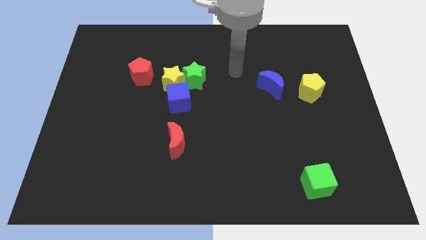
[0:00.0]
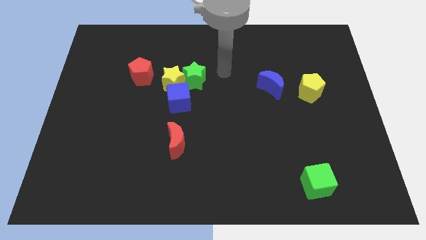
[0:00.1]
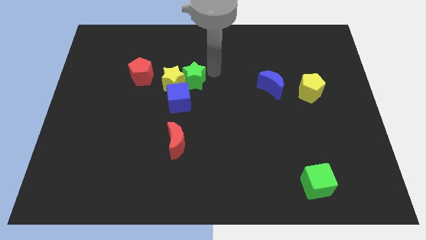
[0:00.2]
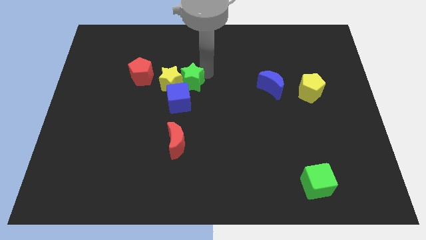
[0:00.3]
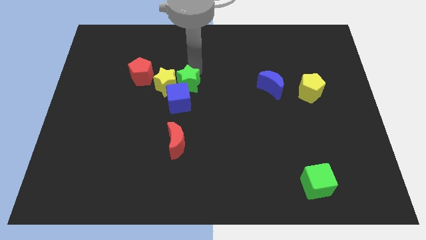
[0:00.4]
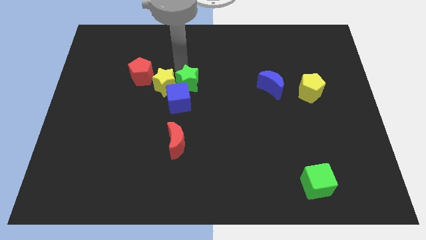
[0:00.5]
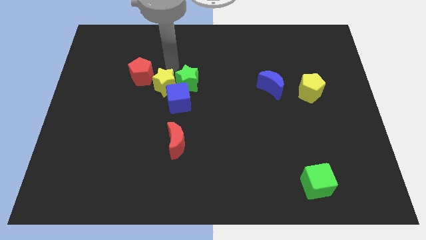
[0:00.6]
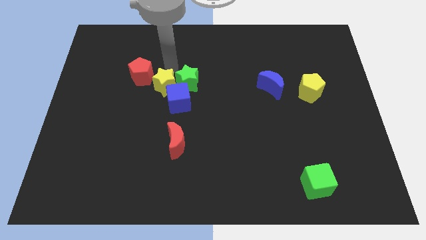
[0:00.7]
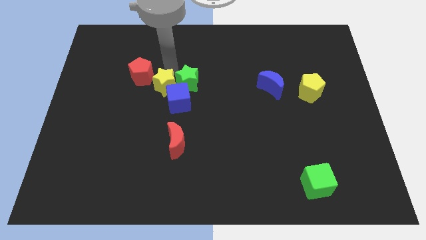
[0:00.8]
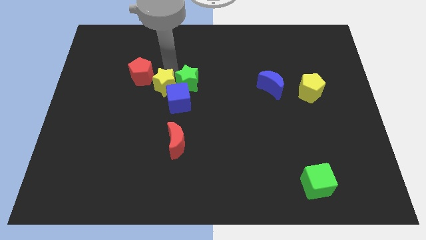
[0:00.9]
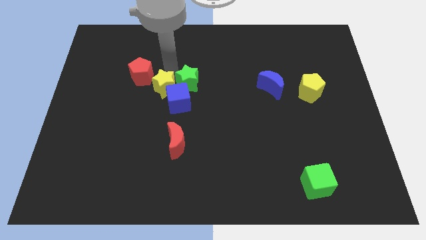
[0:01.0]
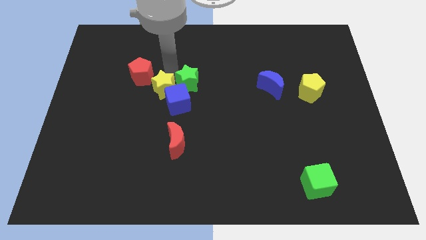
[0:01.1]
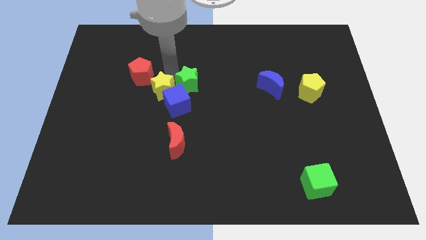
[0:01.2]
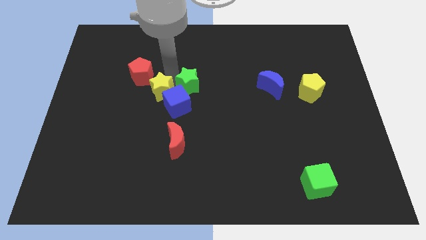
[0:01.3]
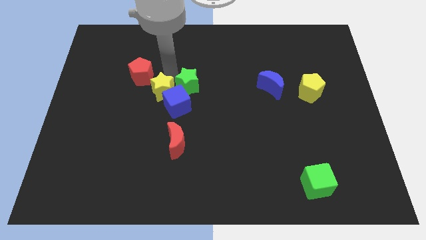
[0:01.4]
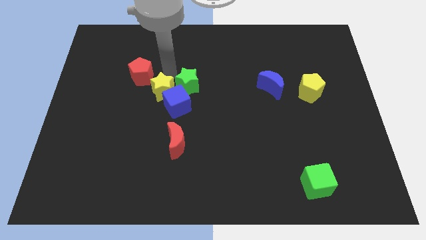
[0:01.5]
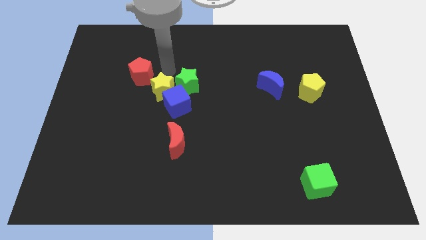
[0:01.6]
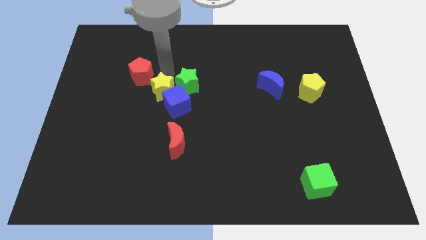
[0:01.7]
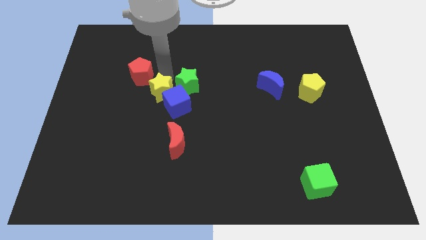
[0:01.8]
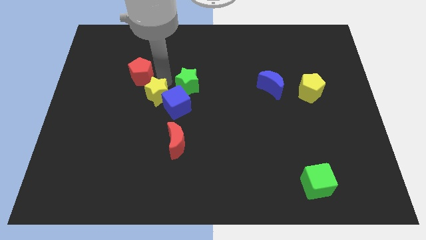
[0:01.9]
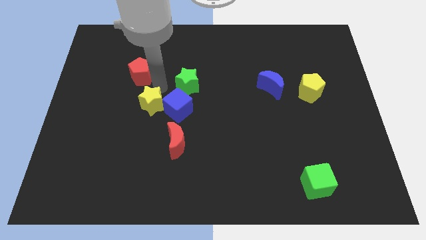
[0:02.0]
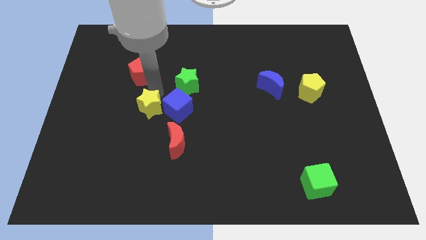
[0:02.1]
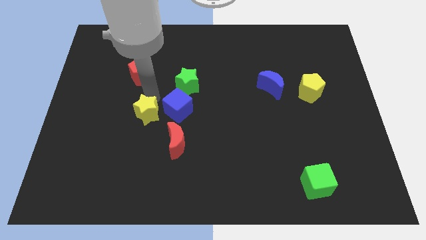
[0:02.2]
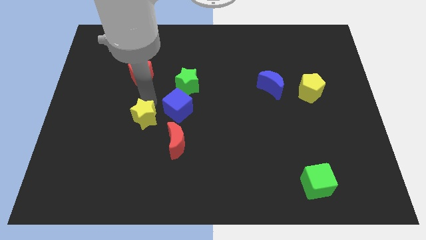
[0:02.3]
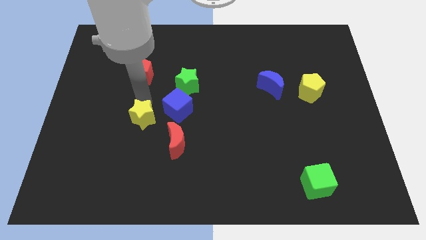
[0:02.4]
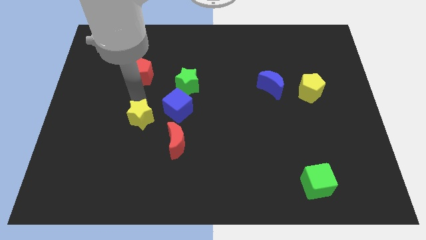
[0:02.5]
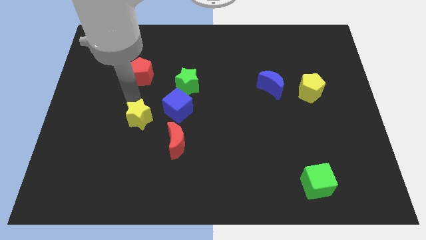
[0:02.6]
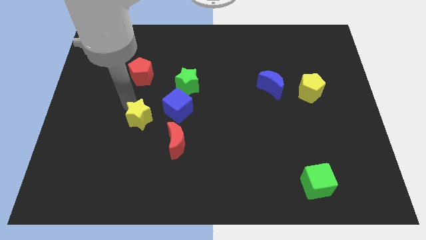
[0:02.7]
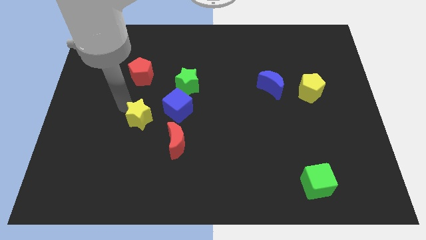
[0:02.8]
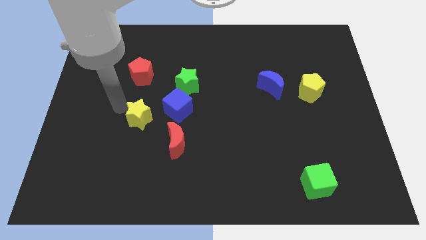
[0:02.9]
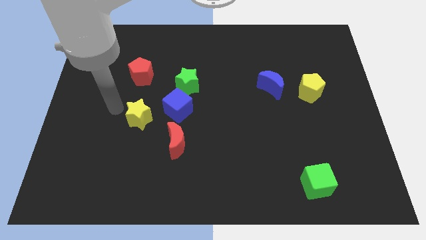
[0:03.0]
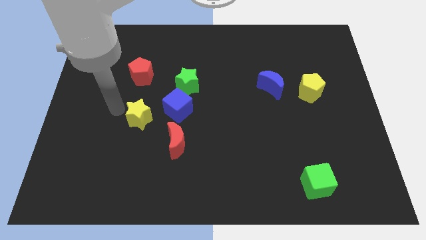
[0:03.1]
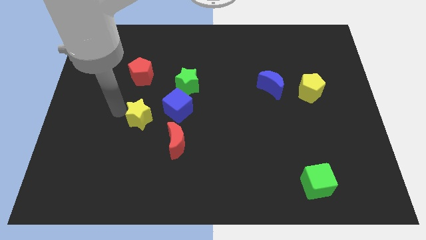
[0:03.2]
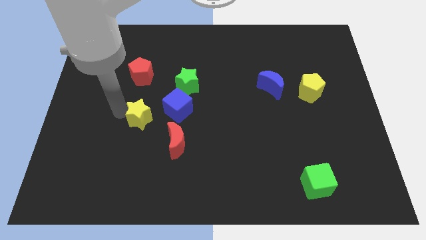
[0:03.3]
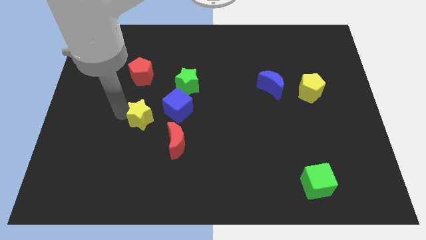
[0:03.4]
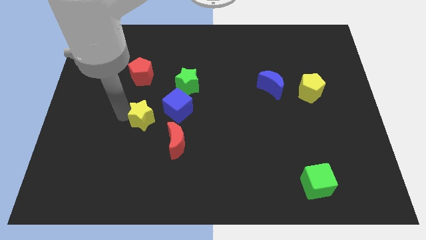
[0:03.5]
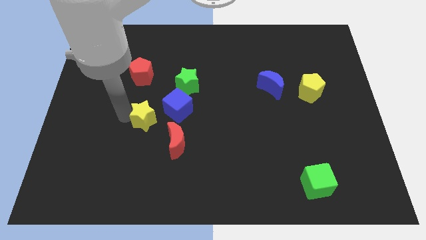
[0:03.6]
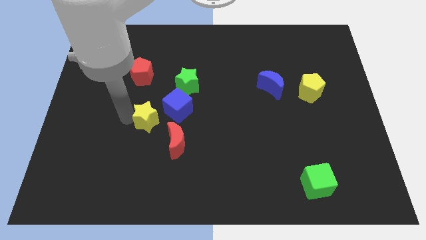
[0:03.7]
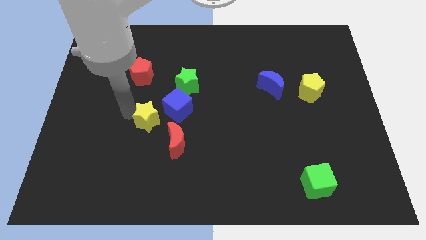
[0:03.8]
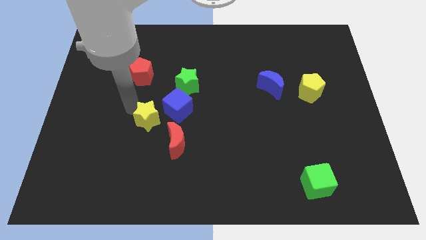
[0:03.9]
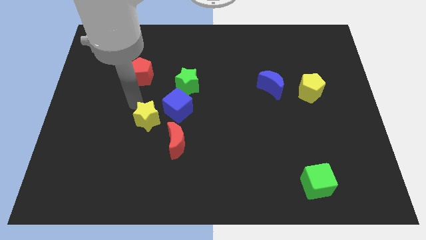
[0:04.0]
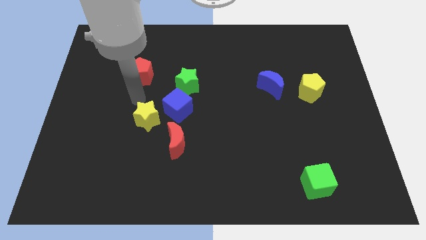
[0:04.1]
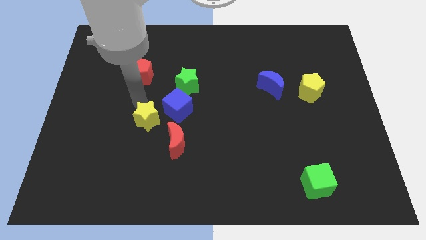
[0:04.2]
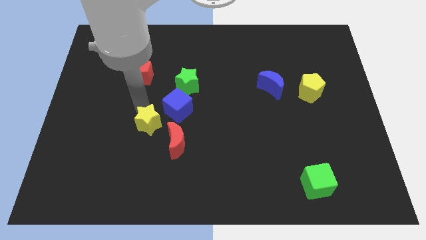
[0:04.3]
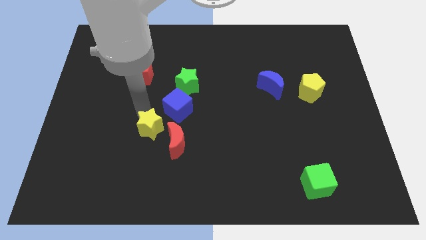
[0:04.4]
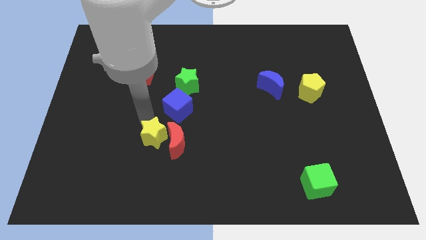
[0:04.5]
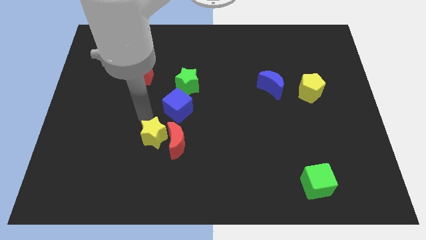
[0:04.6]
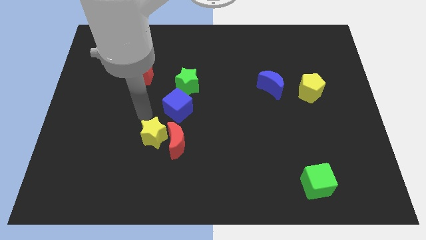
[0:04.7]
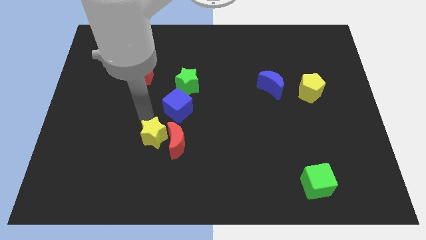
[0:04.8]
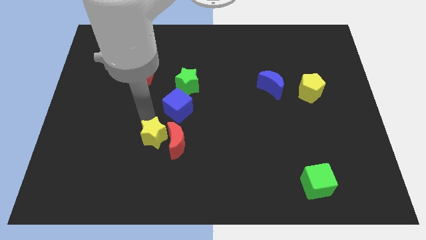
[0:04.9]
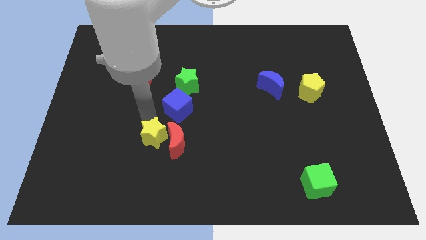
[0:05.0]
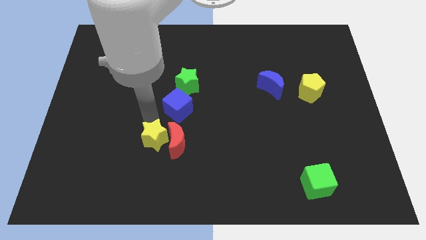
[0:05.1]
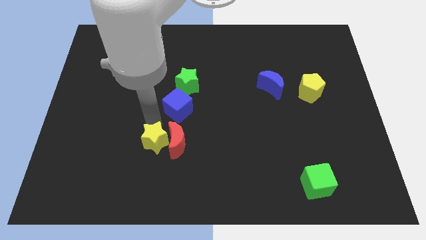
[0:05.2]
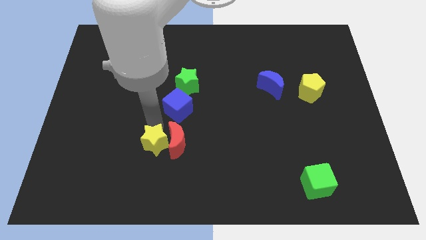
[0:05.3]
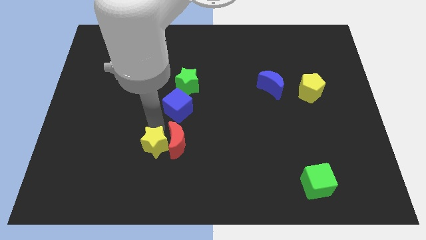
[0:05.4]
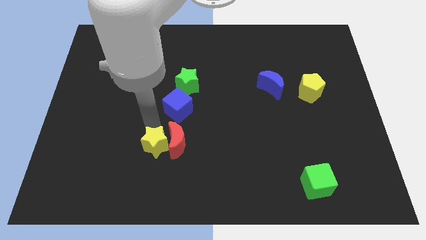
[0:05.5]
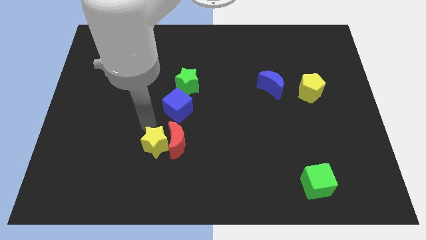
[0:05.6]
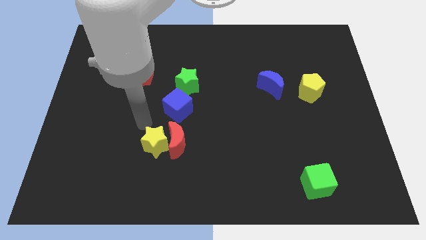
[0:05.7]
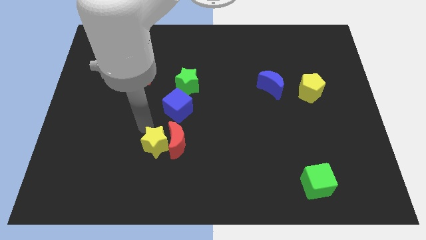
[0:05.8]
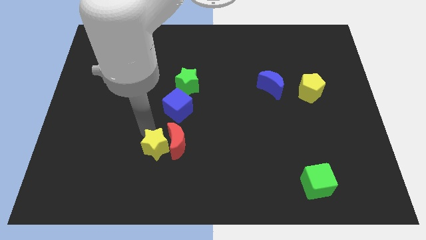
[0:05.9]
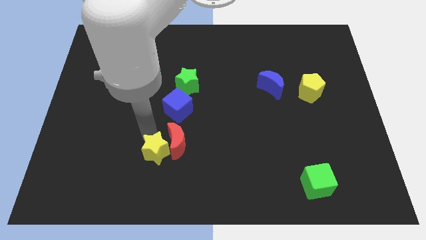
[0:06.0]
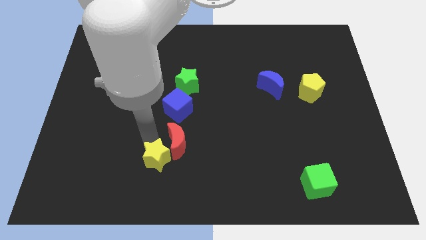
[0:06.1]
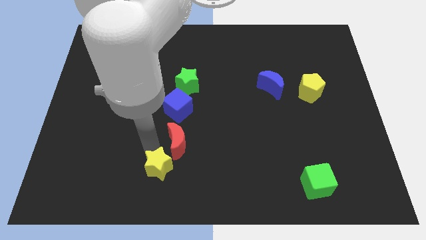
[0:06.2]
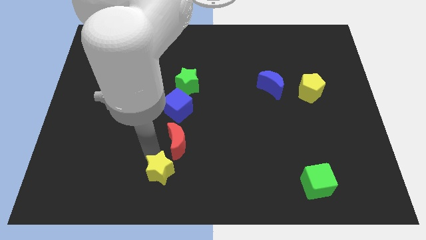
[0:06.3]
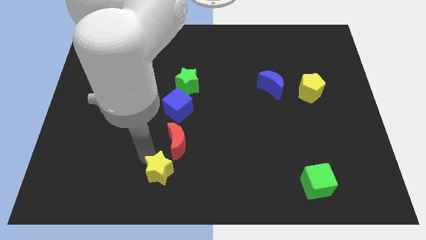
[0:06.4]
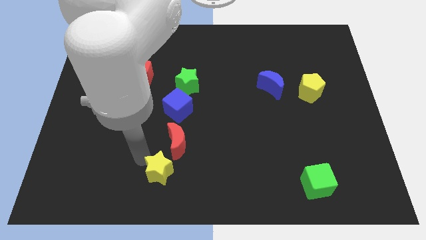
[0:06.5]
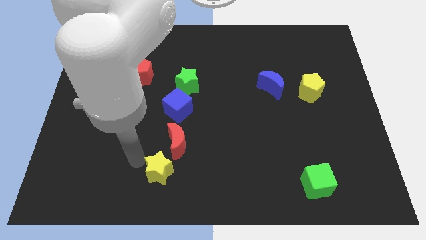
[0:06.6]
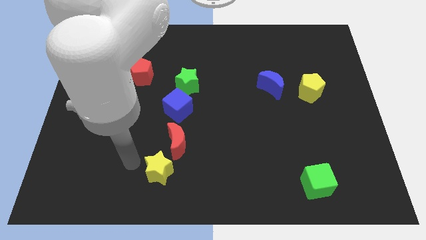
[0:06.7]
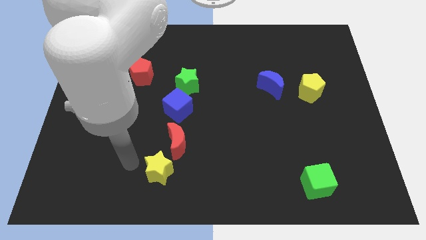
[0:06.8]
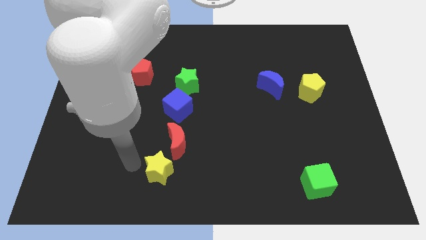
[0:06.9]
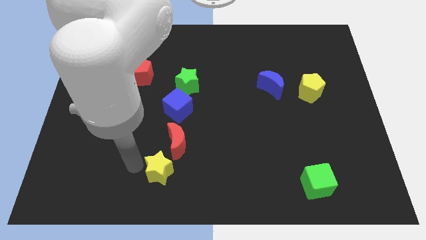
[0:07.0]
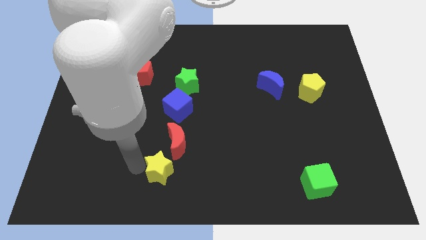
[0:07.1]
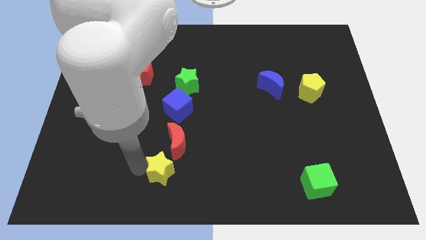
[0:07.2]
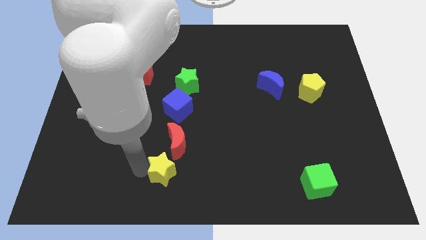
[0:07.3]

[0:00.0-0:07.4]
put the yellow star to the bottom
